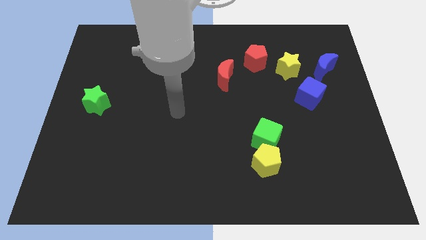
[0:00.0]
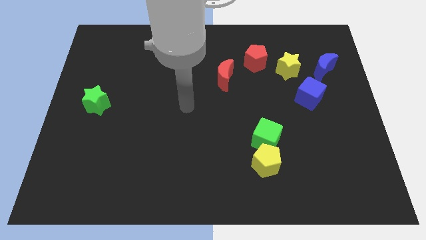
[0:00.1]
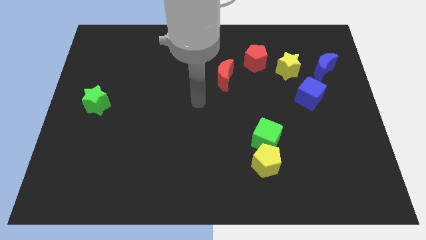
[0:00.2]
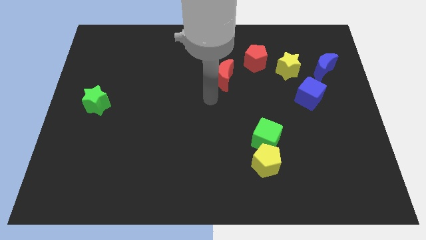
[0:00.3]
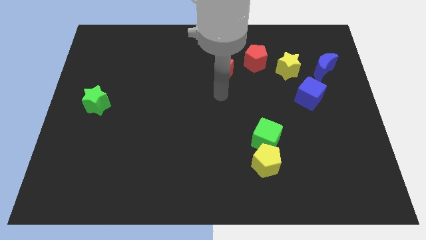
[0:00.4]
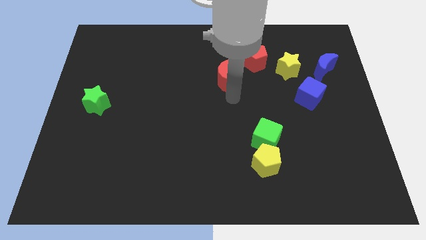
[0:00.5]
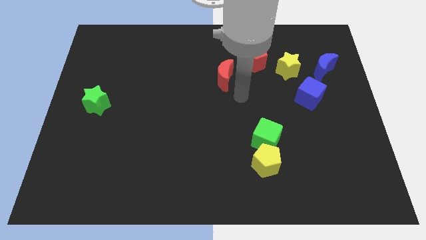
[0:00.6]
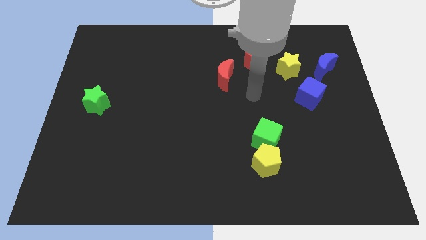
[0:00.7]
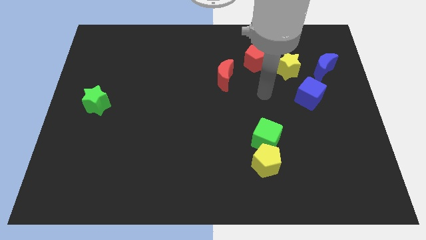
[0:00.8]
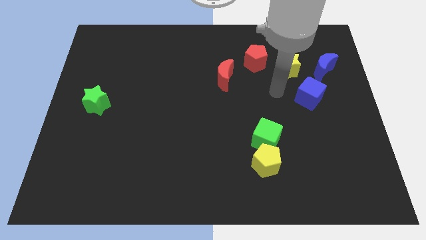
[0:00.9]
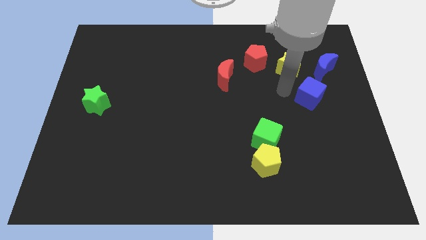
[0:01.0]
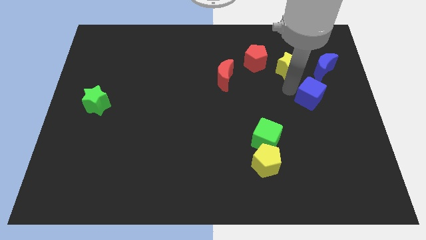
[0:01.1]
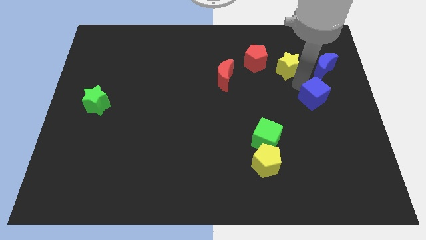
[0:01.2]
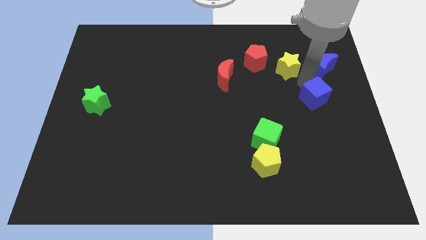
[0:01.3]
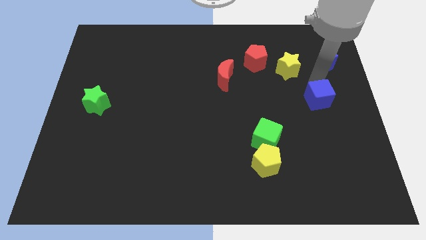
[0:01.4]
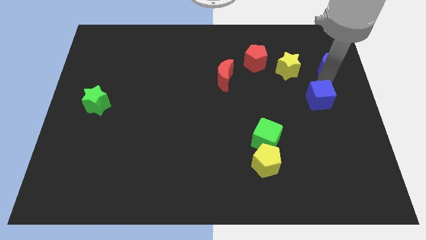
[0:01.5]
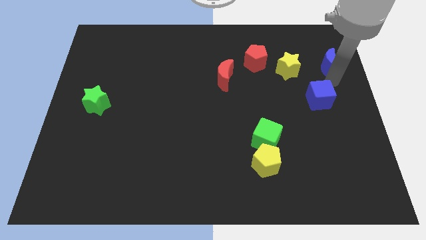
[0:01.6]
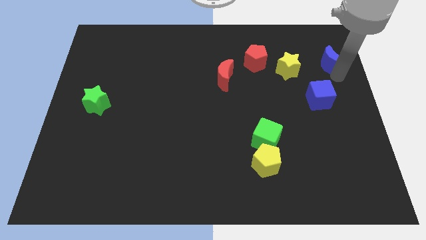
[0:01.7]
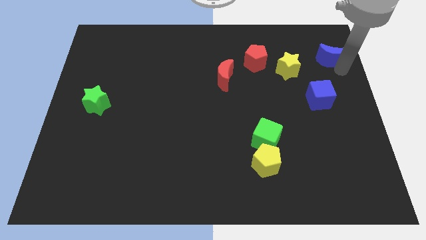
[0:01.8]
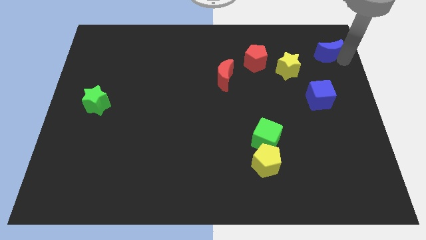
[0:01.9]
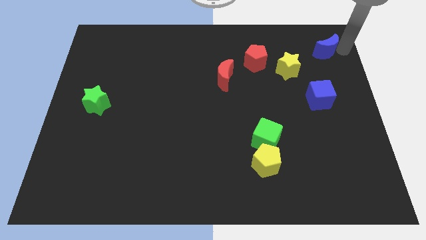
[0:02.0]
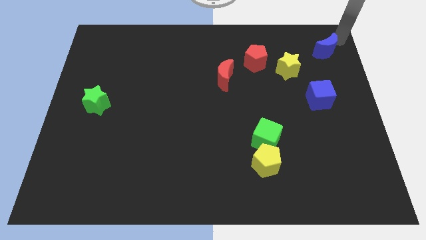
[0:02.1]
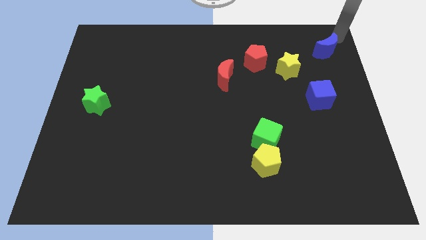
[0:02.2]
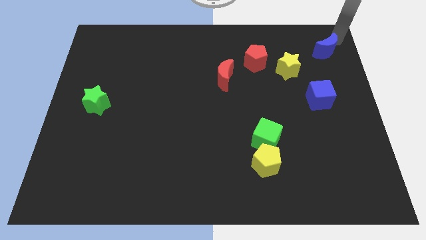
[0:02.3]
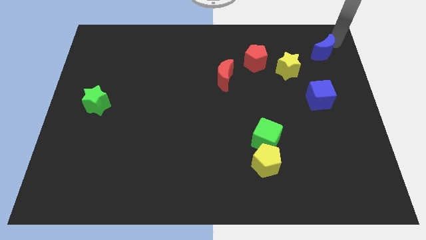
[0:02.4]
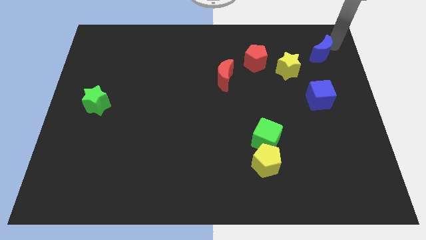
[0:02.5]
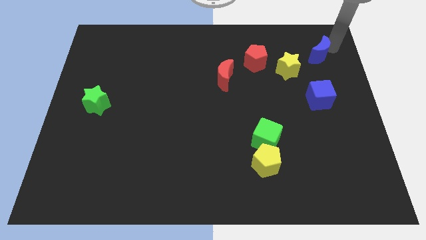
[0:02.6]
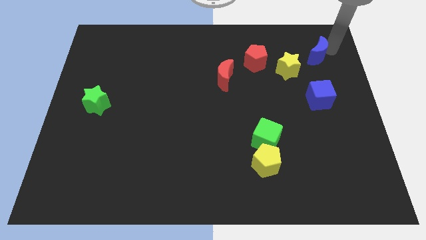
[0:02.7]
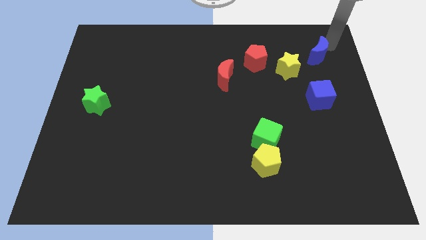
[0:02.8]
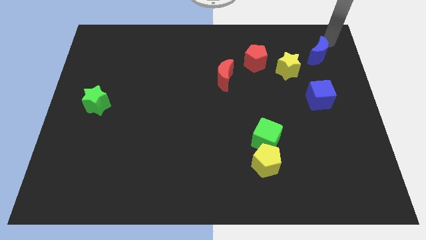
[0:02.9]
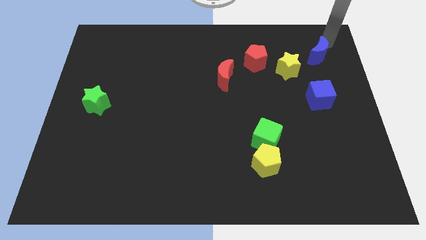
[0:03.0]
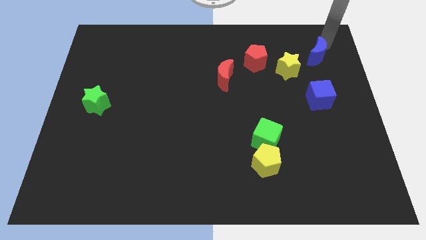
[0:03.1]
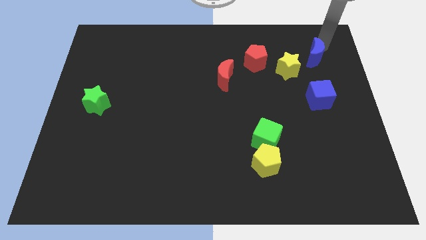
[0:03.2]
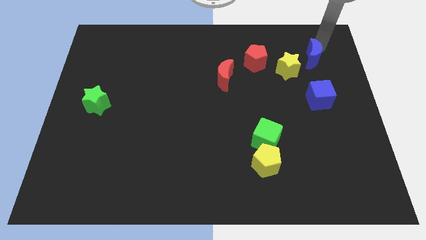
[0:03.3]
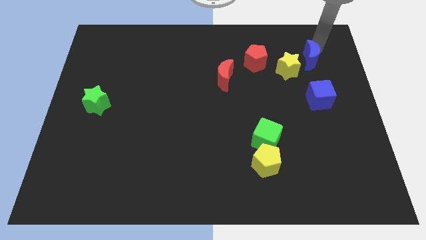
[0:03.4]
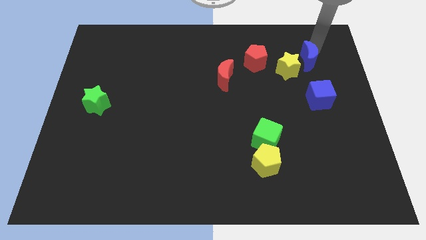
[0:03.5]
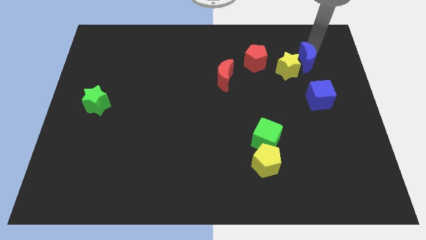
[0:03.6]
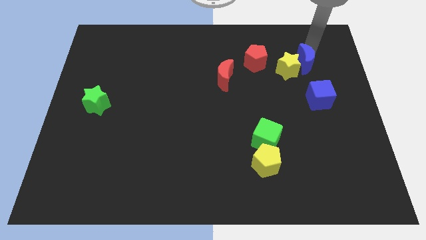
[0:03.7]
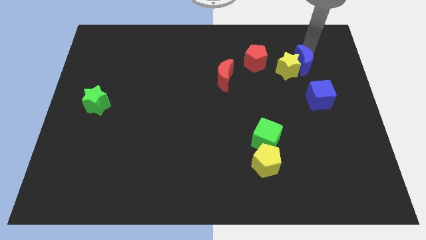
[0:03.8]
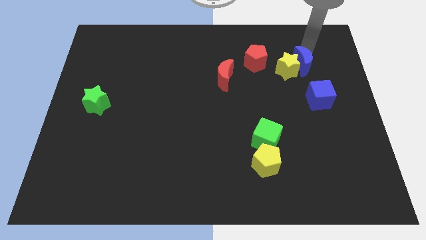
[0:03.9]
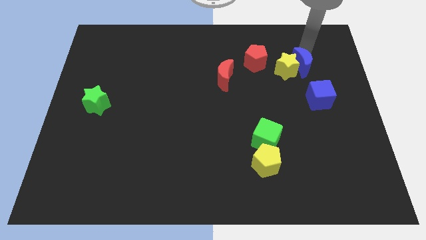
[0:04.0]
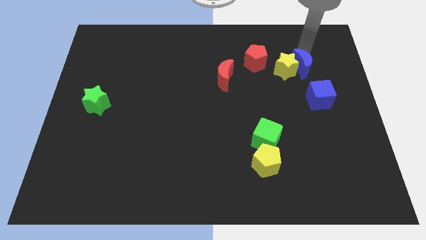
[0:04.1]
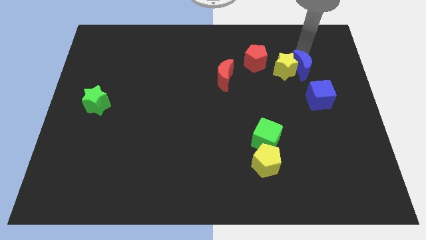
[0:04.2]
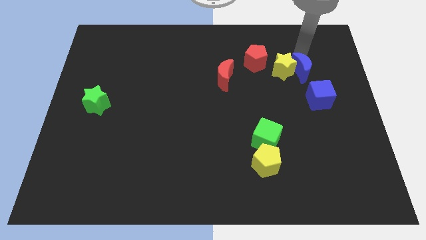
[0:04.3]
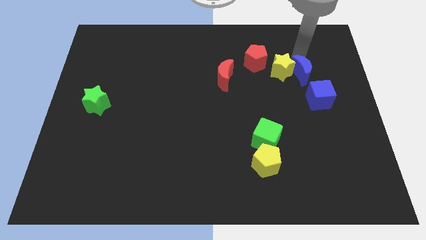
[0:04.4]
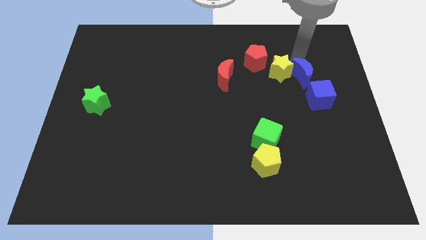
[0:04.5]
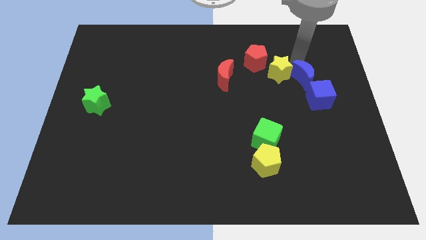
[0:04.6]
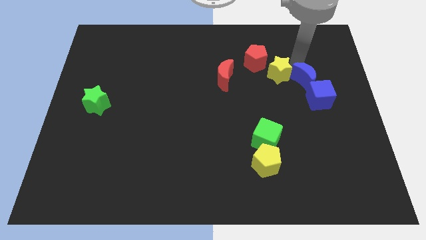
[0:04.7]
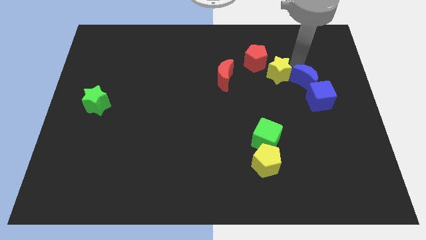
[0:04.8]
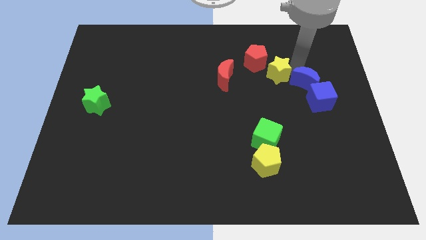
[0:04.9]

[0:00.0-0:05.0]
slide the blue moon downwards and to the left diagonally slightly

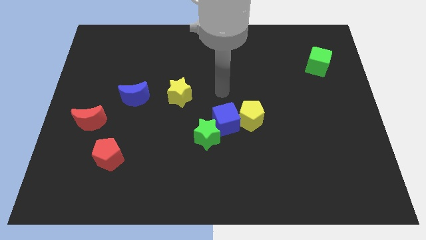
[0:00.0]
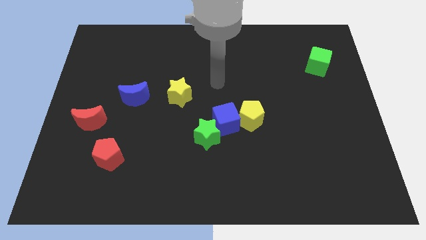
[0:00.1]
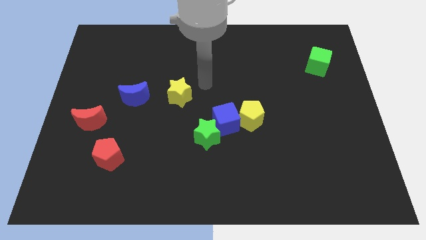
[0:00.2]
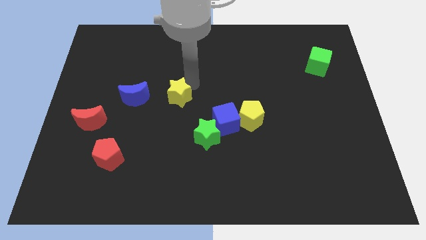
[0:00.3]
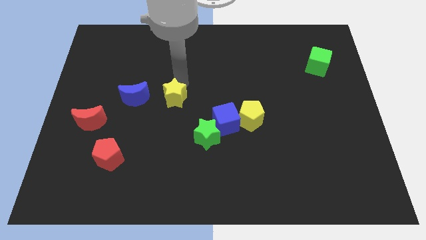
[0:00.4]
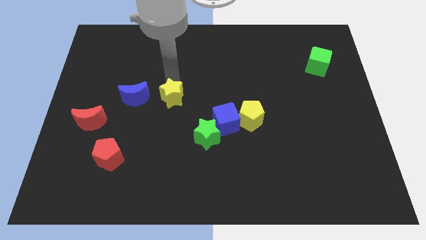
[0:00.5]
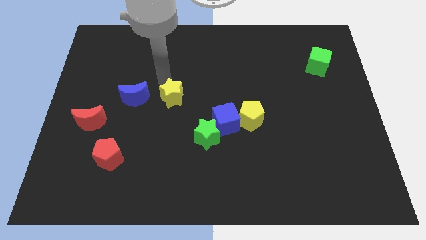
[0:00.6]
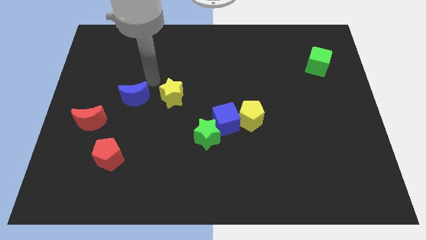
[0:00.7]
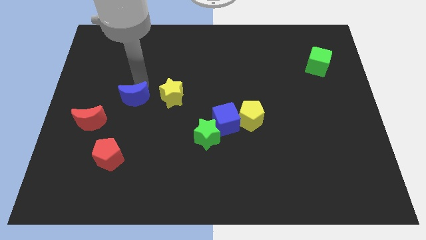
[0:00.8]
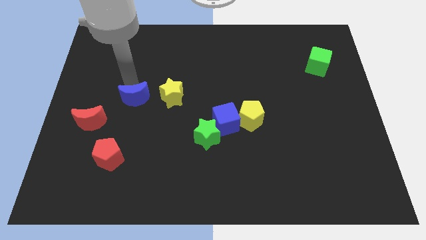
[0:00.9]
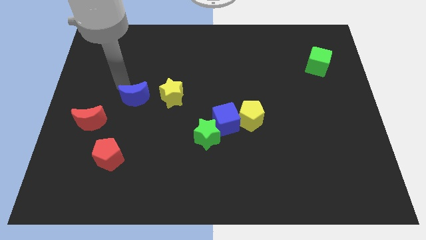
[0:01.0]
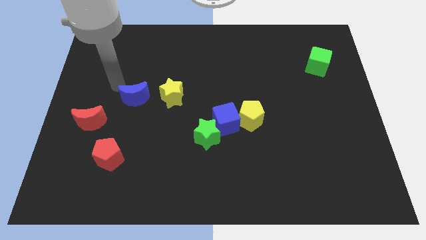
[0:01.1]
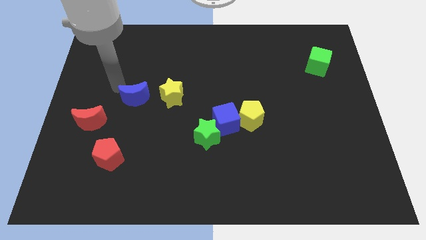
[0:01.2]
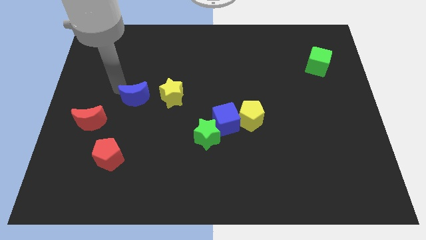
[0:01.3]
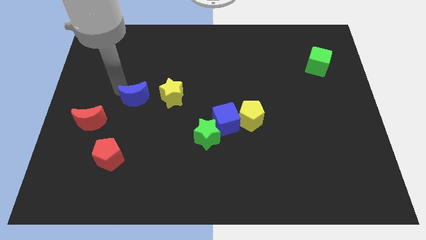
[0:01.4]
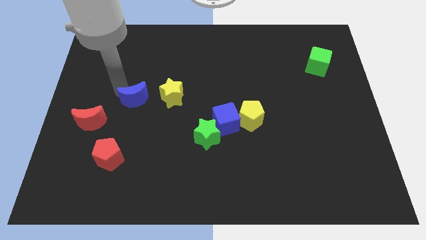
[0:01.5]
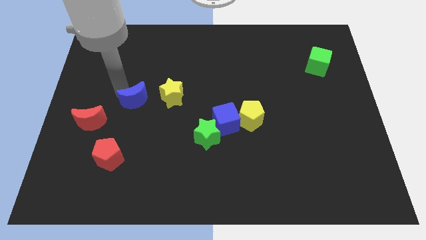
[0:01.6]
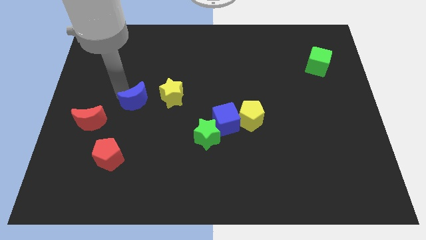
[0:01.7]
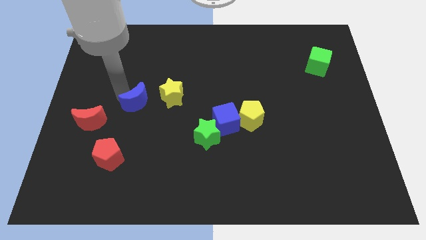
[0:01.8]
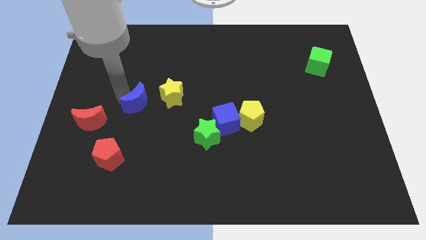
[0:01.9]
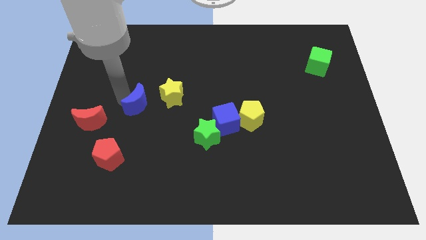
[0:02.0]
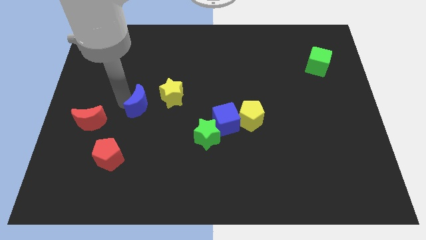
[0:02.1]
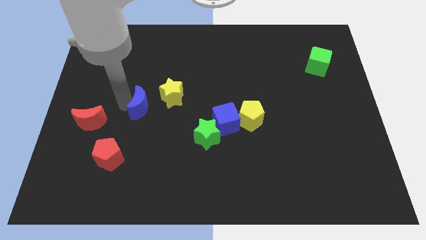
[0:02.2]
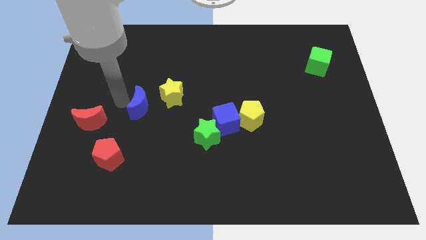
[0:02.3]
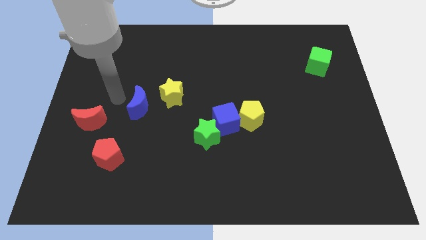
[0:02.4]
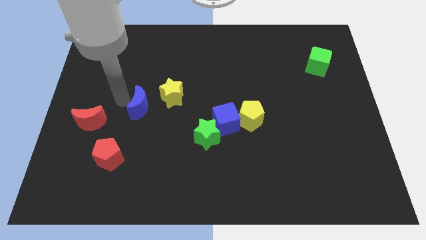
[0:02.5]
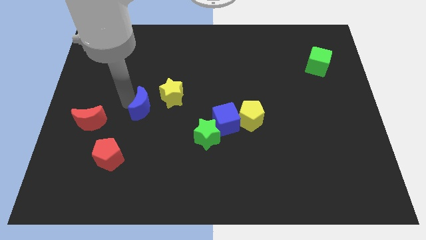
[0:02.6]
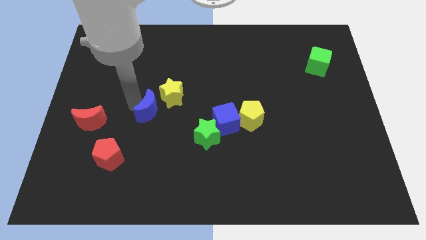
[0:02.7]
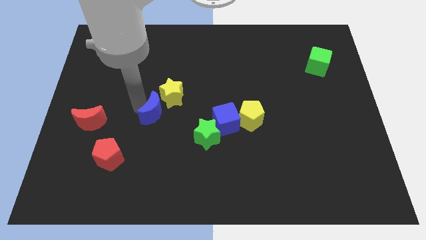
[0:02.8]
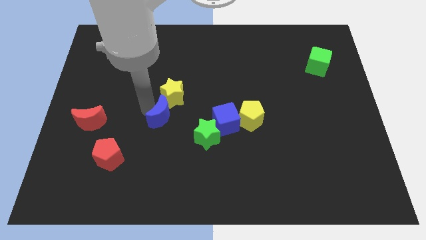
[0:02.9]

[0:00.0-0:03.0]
move the blue moon downwards and to the right diagonally a little bit

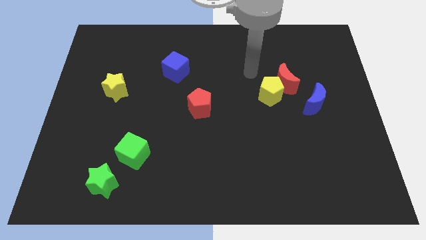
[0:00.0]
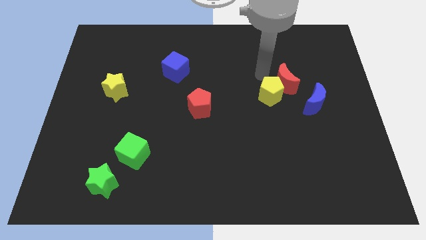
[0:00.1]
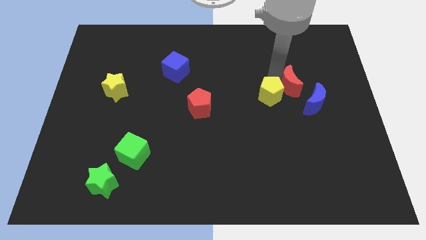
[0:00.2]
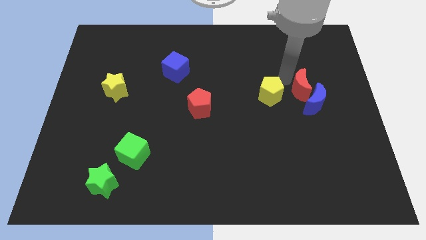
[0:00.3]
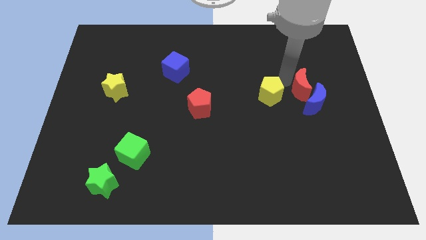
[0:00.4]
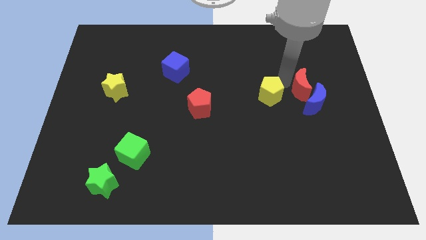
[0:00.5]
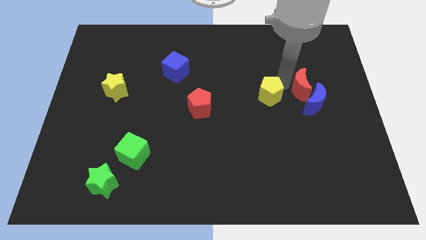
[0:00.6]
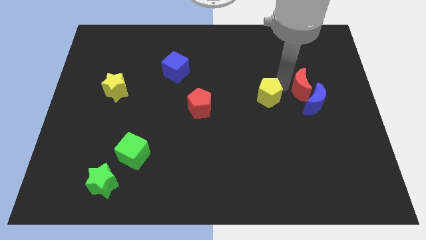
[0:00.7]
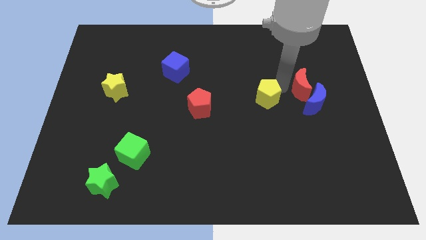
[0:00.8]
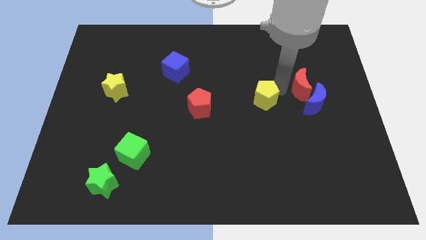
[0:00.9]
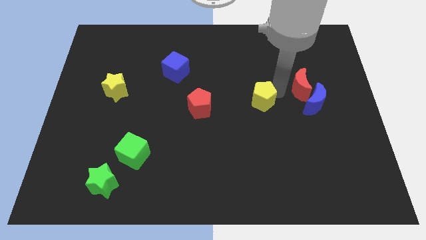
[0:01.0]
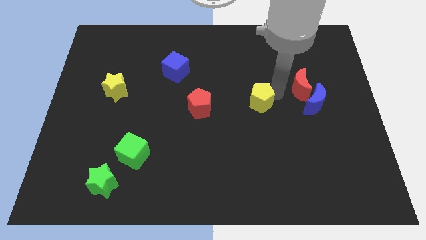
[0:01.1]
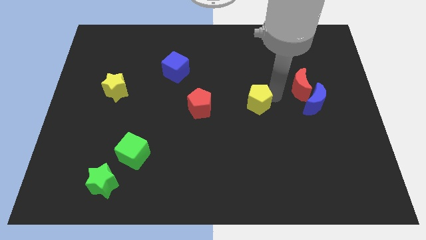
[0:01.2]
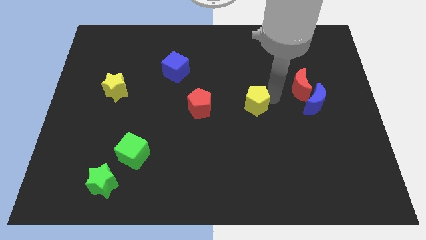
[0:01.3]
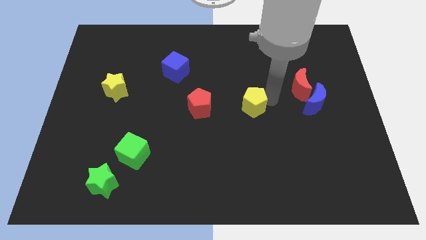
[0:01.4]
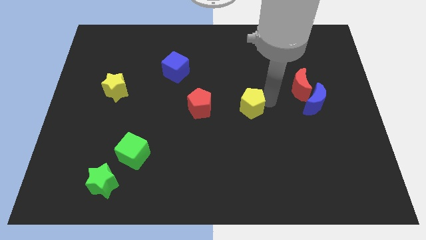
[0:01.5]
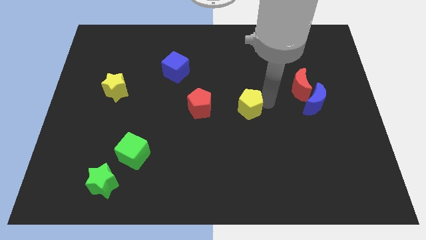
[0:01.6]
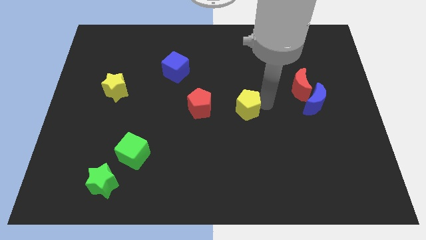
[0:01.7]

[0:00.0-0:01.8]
move the yellow pentagon down and to the left diagonally slightly
